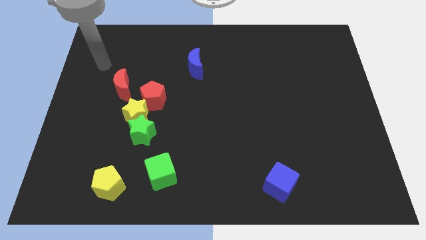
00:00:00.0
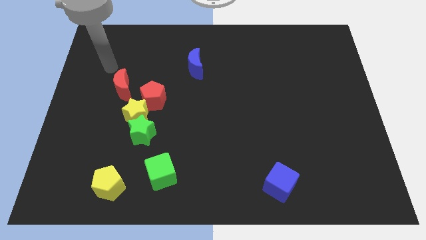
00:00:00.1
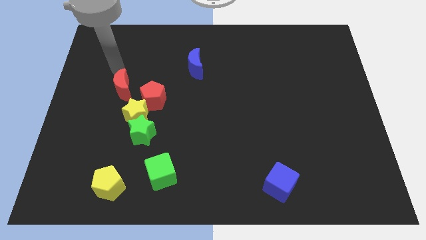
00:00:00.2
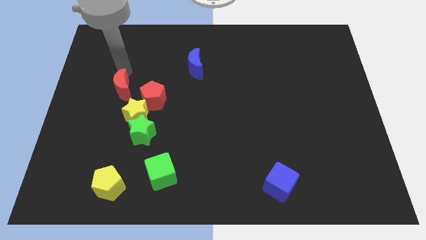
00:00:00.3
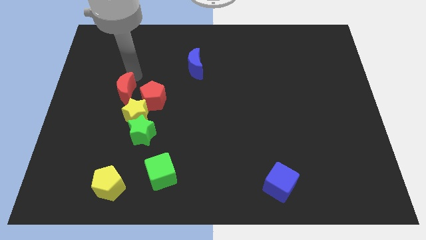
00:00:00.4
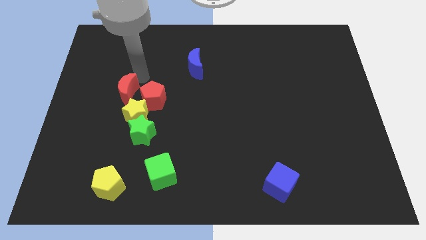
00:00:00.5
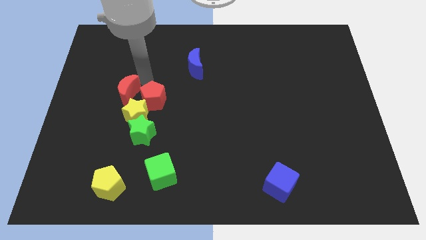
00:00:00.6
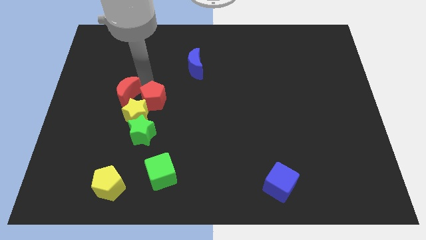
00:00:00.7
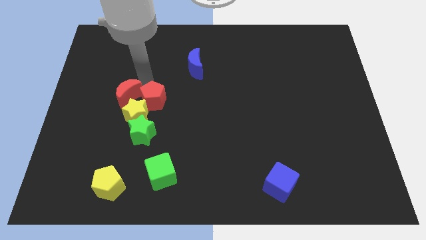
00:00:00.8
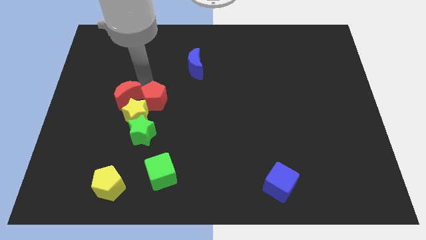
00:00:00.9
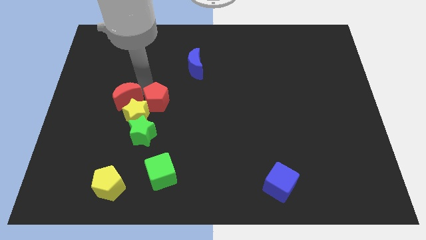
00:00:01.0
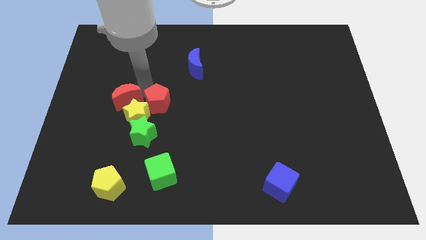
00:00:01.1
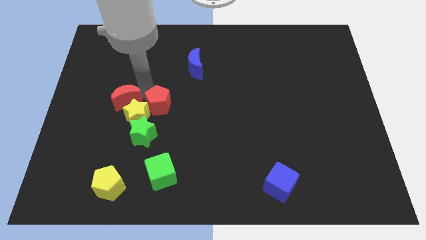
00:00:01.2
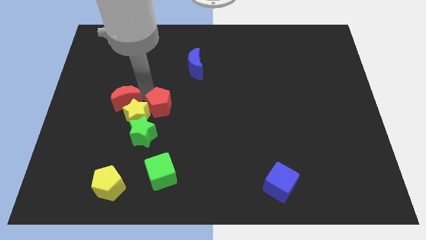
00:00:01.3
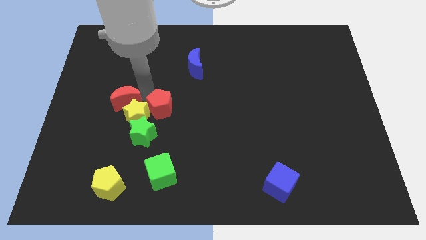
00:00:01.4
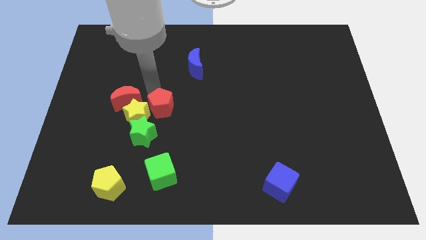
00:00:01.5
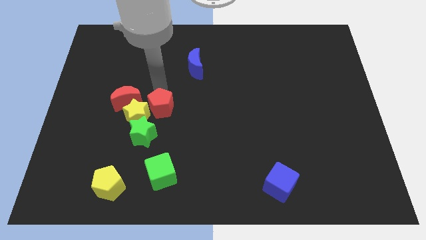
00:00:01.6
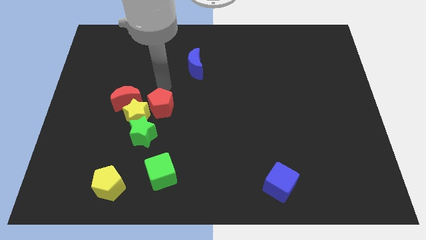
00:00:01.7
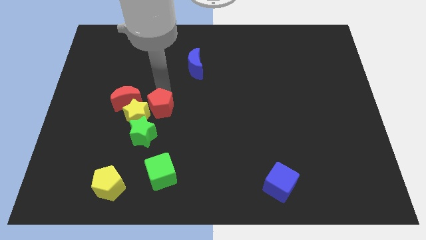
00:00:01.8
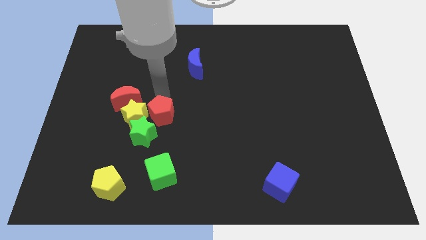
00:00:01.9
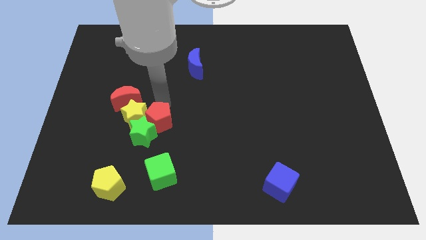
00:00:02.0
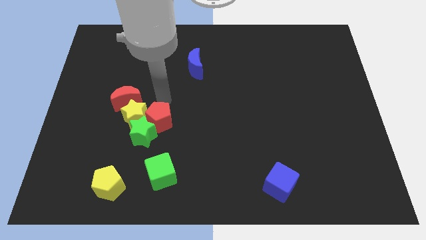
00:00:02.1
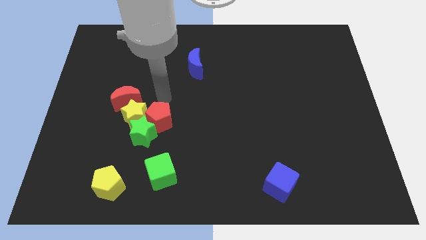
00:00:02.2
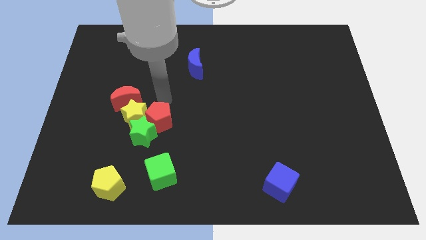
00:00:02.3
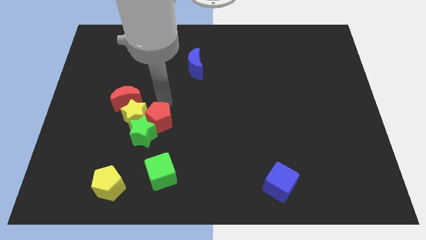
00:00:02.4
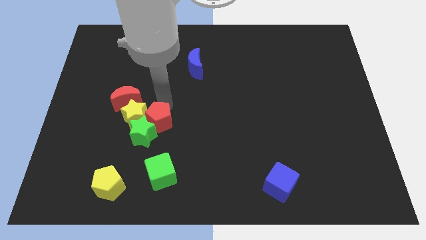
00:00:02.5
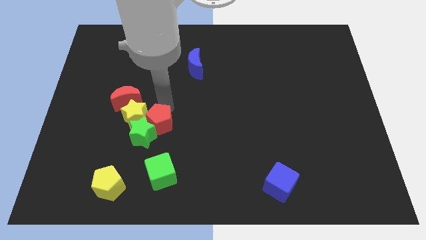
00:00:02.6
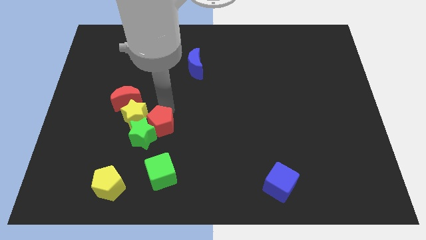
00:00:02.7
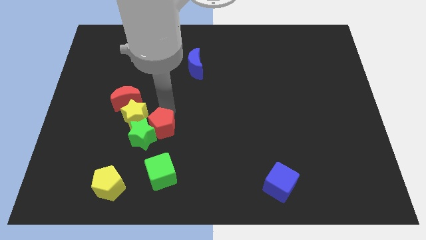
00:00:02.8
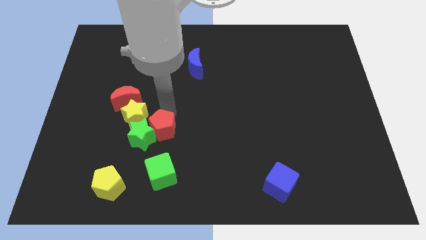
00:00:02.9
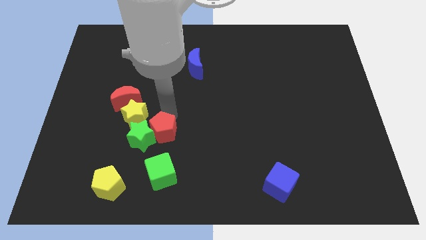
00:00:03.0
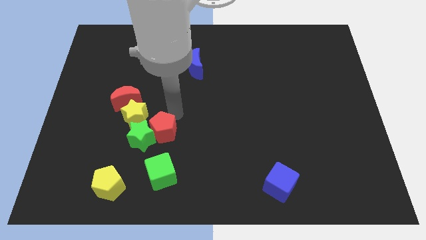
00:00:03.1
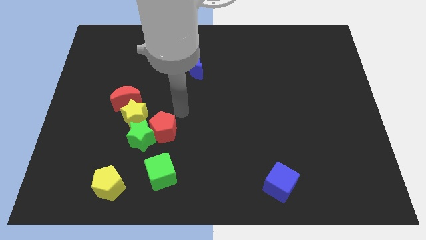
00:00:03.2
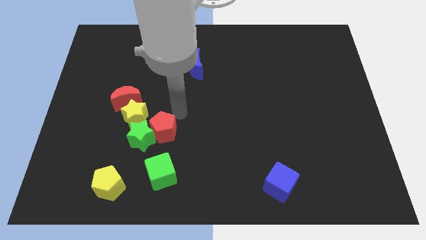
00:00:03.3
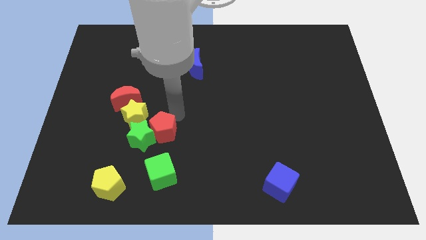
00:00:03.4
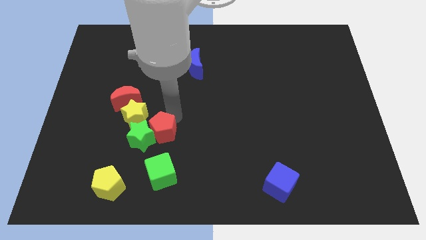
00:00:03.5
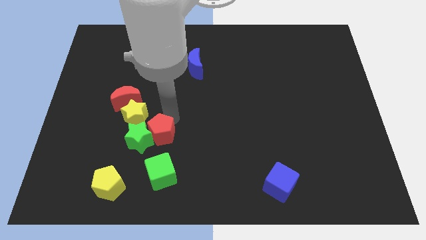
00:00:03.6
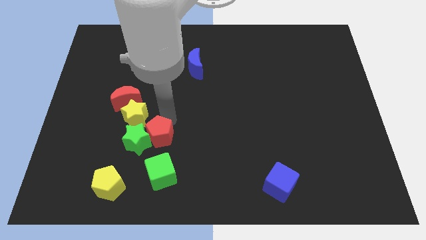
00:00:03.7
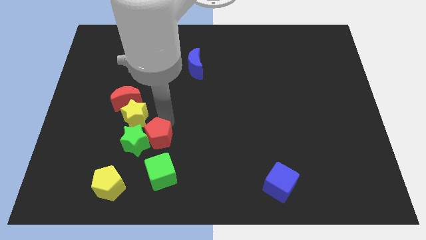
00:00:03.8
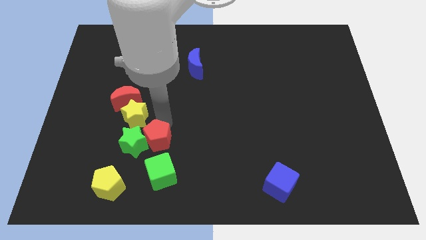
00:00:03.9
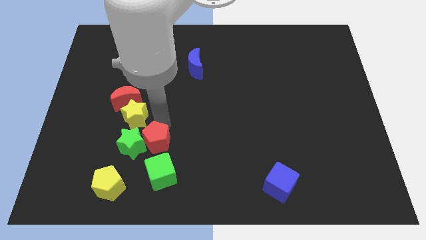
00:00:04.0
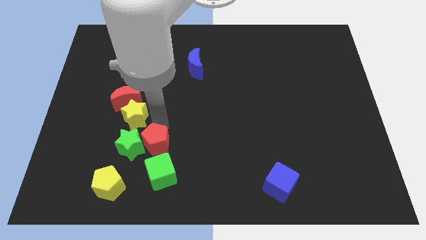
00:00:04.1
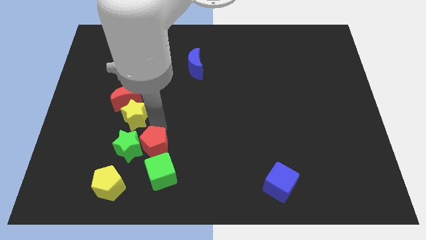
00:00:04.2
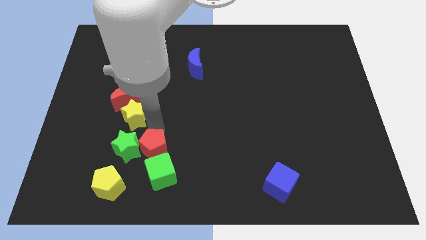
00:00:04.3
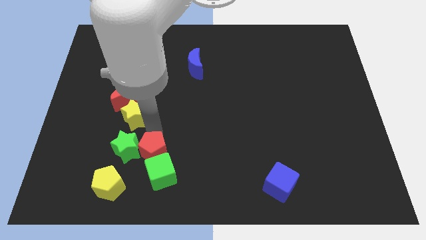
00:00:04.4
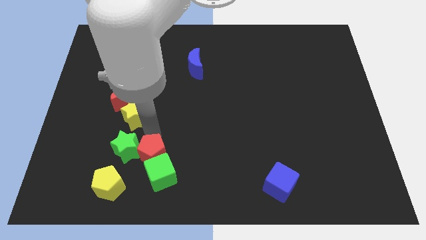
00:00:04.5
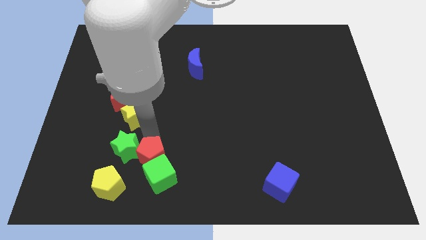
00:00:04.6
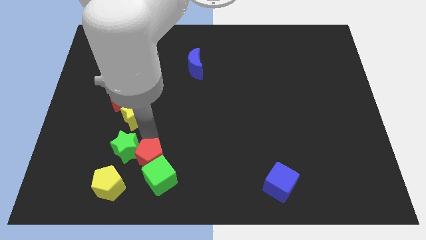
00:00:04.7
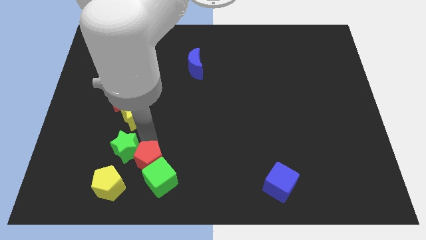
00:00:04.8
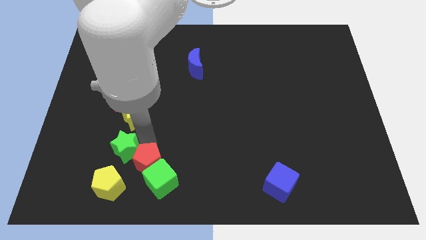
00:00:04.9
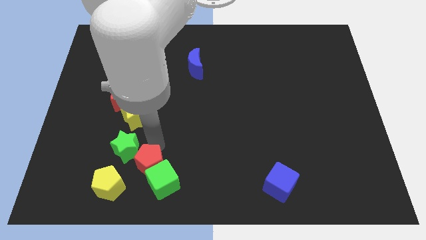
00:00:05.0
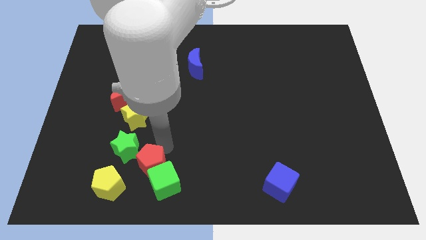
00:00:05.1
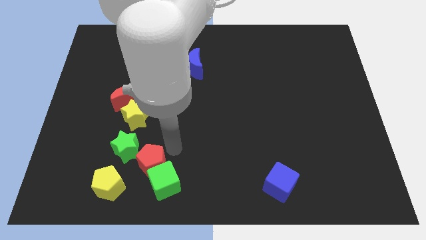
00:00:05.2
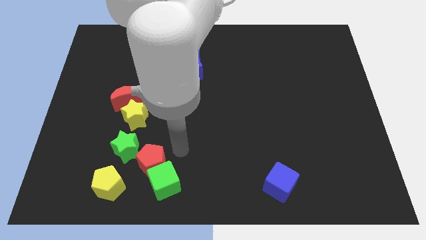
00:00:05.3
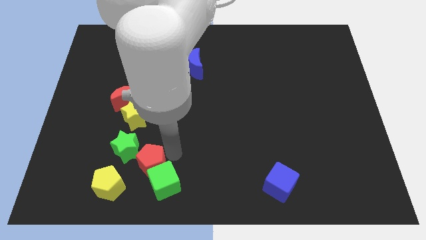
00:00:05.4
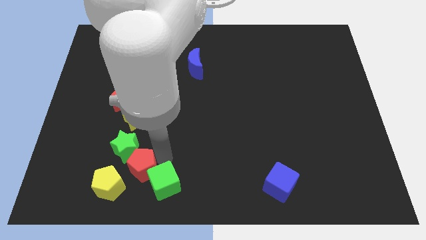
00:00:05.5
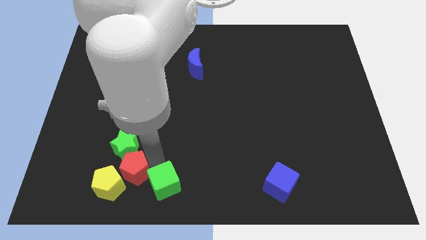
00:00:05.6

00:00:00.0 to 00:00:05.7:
slide the red pentagon to the yellow pentagon

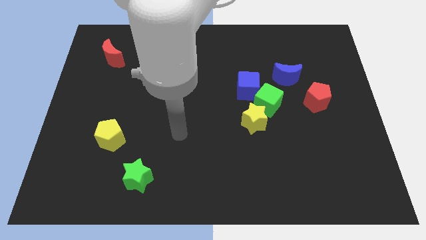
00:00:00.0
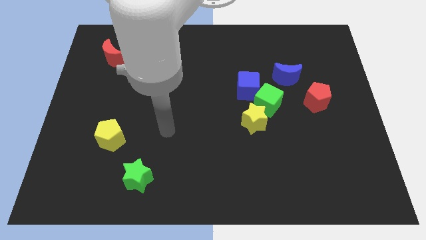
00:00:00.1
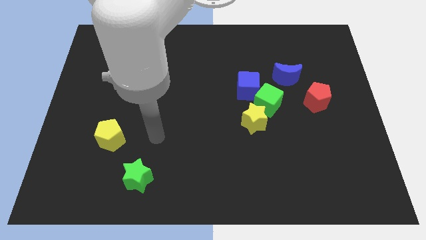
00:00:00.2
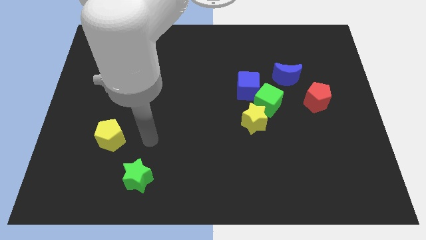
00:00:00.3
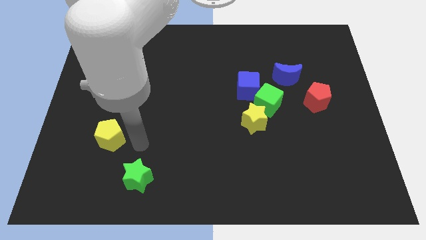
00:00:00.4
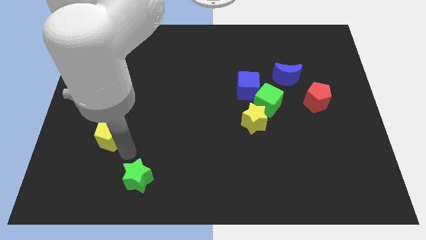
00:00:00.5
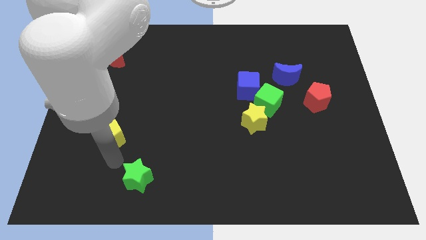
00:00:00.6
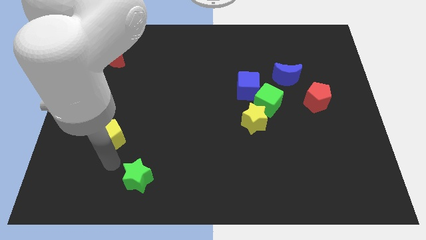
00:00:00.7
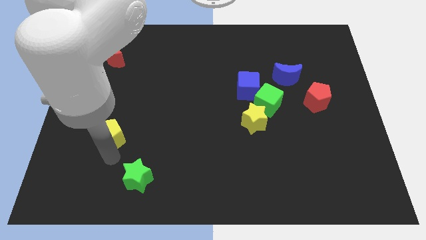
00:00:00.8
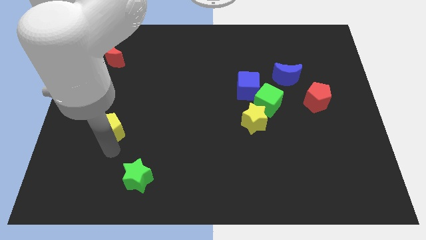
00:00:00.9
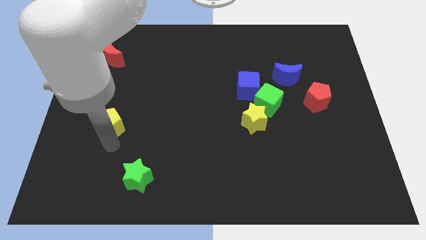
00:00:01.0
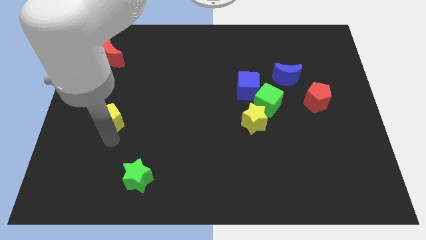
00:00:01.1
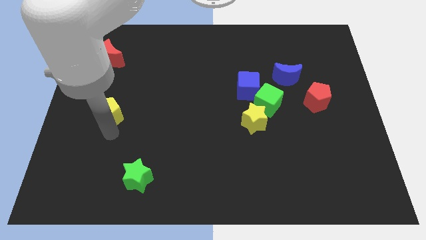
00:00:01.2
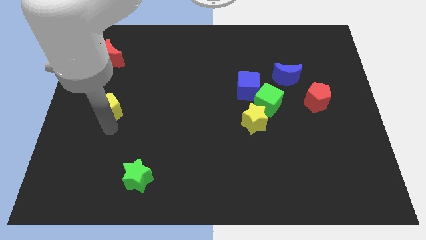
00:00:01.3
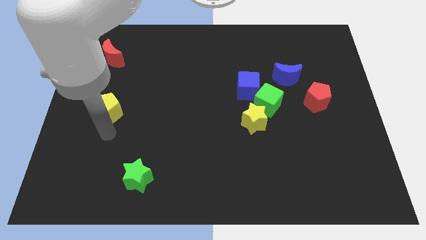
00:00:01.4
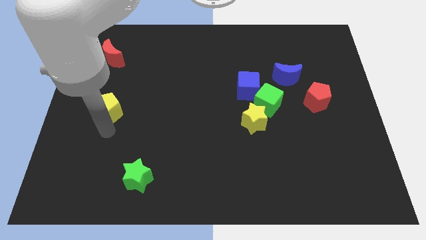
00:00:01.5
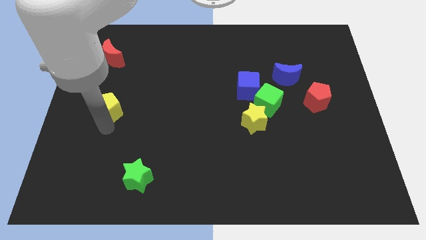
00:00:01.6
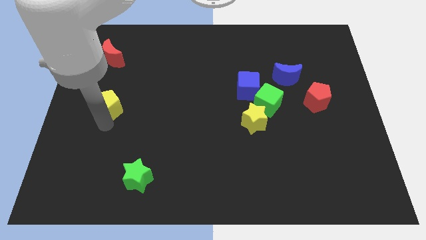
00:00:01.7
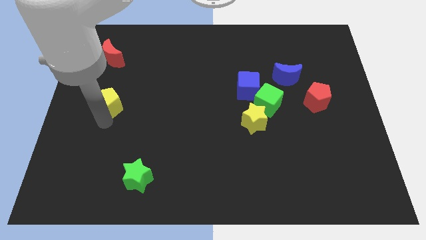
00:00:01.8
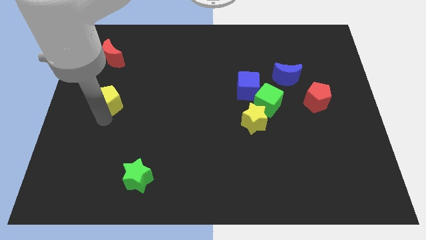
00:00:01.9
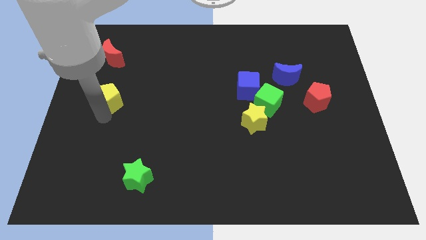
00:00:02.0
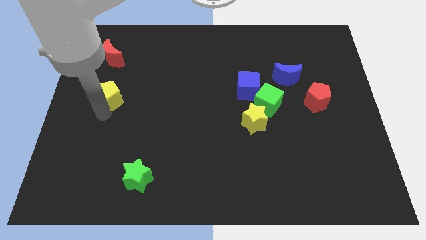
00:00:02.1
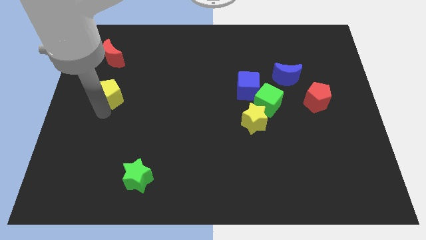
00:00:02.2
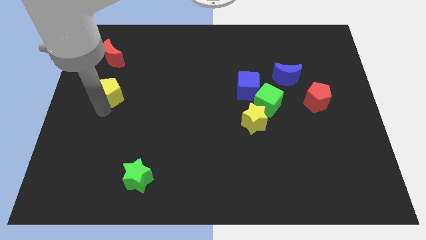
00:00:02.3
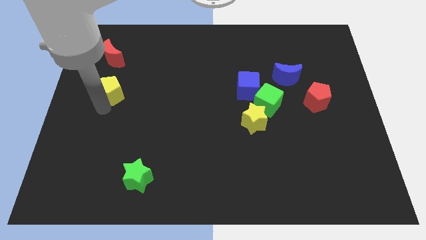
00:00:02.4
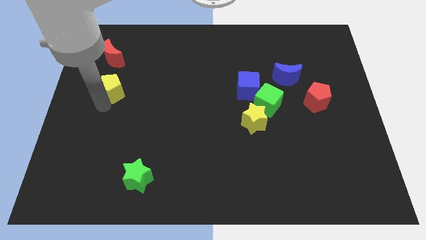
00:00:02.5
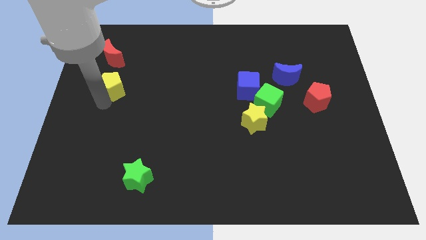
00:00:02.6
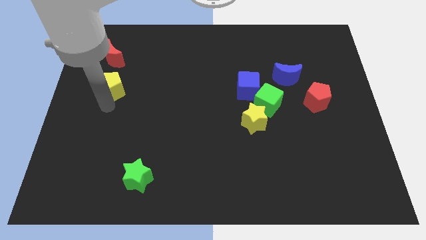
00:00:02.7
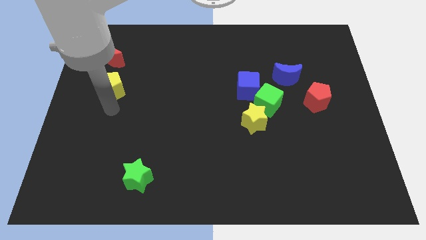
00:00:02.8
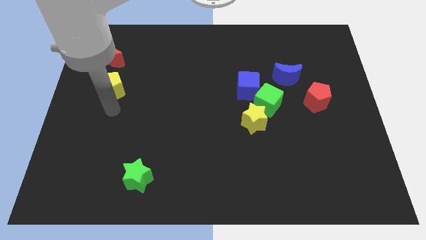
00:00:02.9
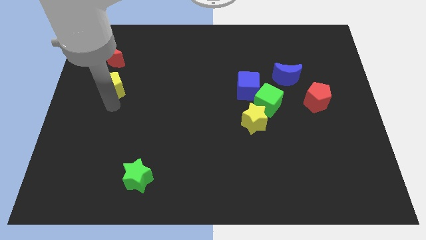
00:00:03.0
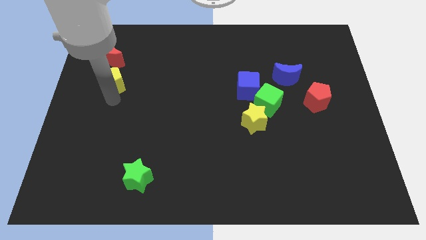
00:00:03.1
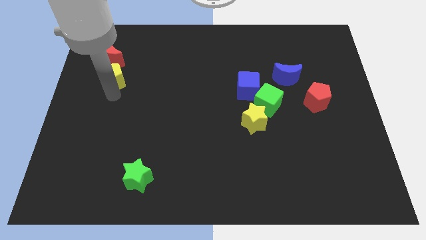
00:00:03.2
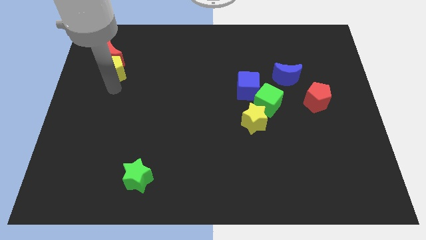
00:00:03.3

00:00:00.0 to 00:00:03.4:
move the yellow pentagon to the red moon
